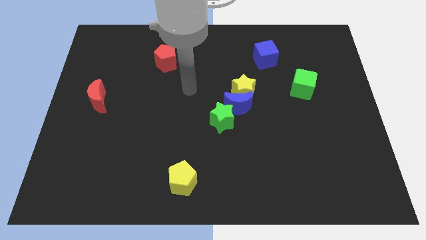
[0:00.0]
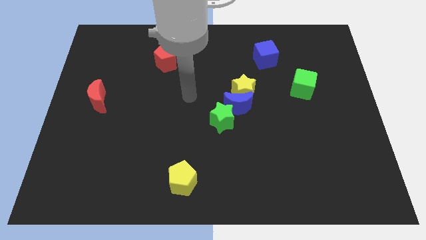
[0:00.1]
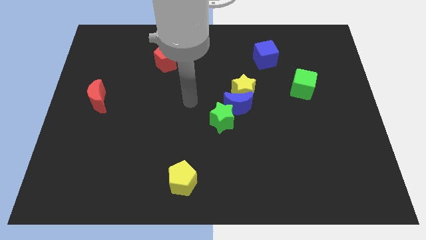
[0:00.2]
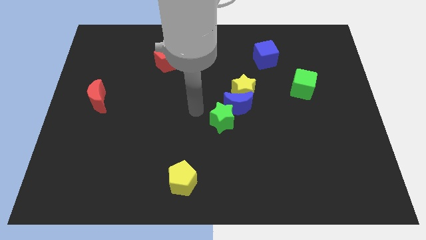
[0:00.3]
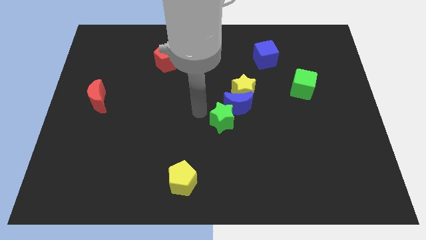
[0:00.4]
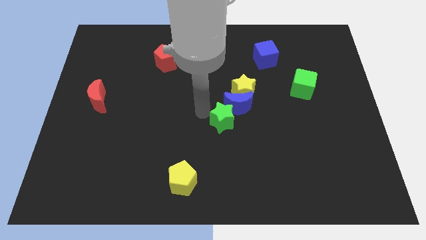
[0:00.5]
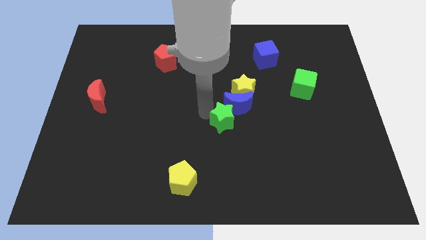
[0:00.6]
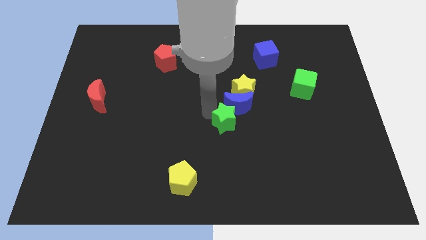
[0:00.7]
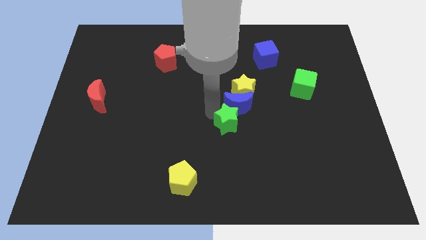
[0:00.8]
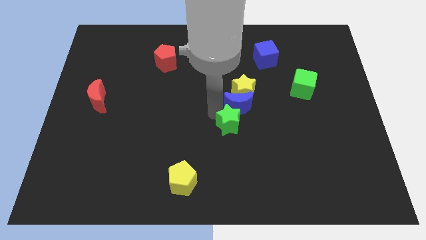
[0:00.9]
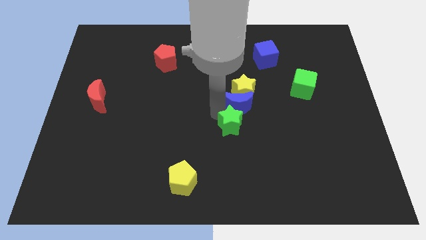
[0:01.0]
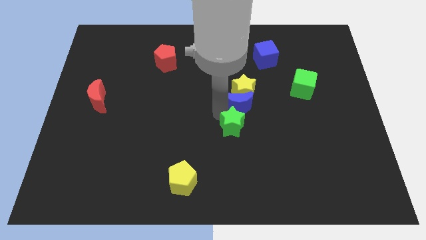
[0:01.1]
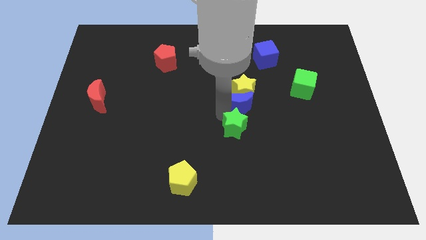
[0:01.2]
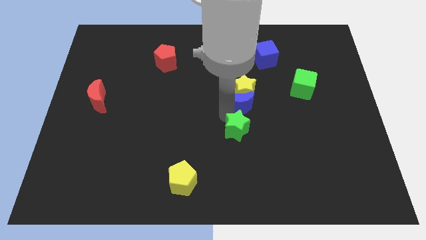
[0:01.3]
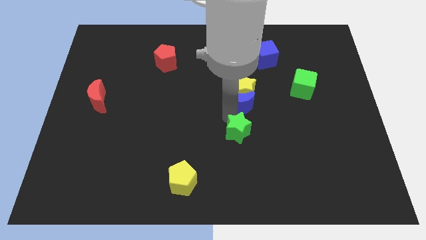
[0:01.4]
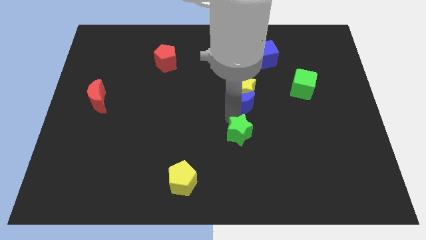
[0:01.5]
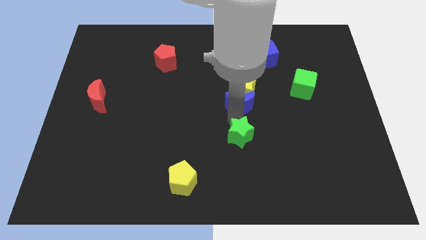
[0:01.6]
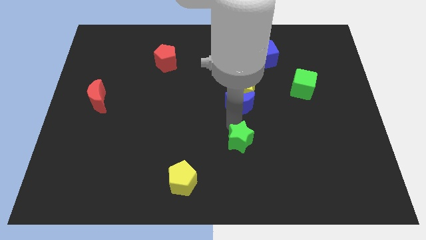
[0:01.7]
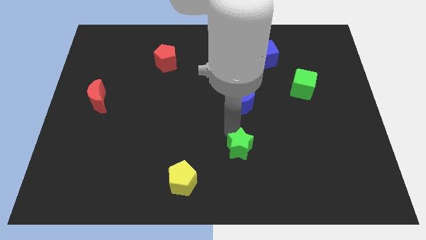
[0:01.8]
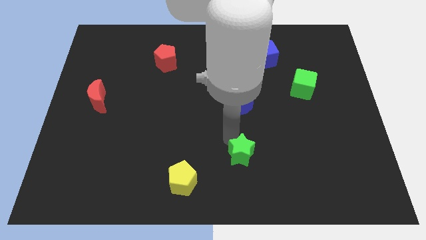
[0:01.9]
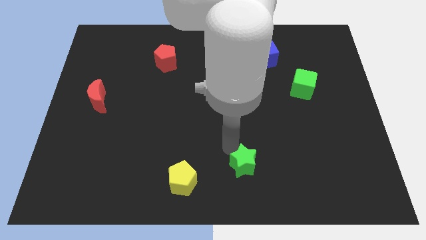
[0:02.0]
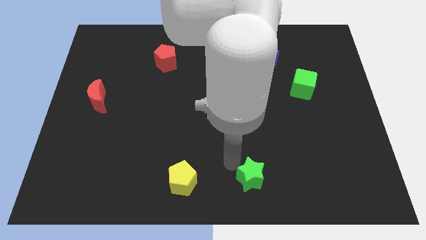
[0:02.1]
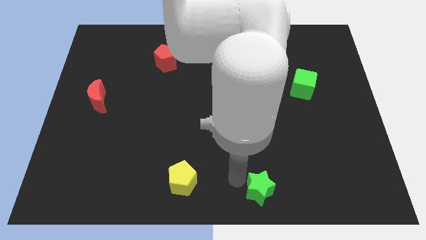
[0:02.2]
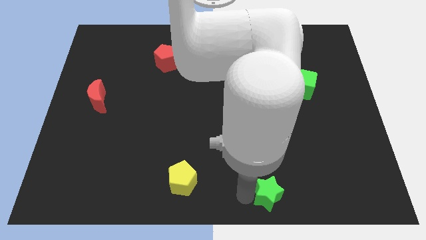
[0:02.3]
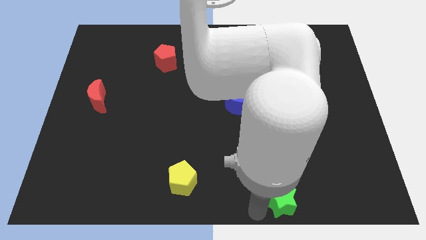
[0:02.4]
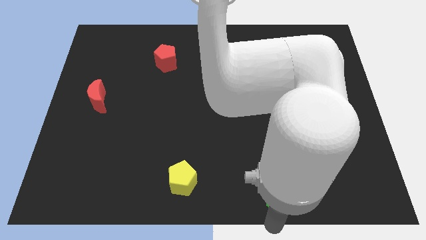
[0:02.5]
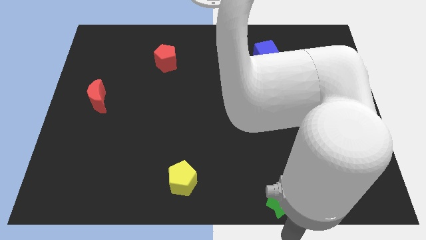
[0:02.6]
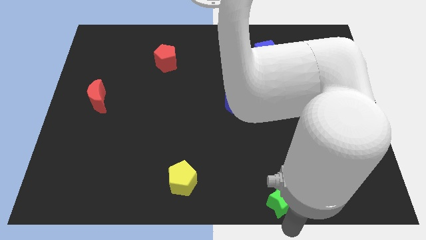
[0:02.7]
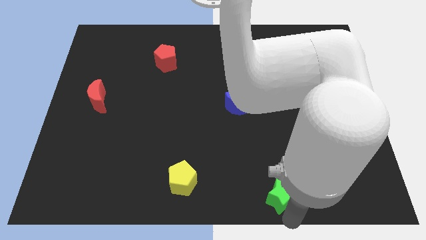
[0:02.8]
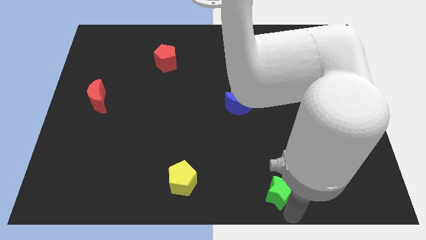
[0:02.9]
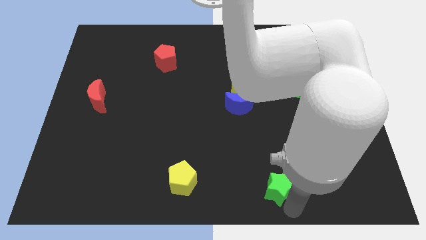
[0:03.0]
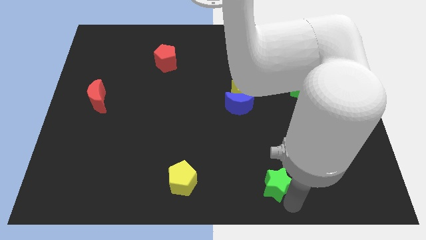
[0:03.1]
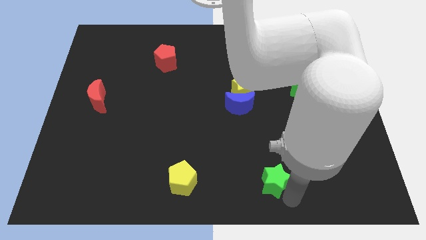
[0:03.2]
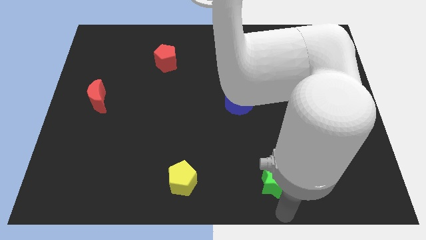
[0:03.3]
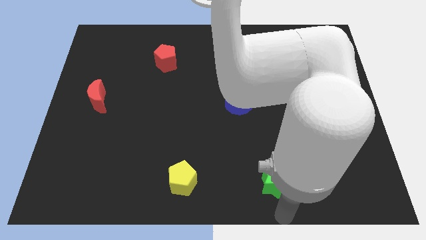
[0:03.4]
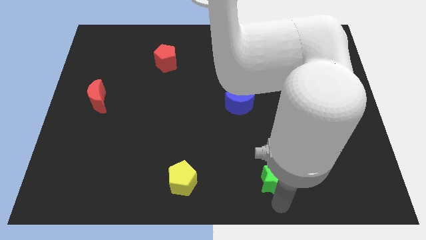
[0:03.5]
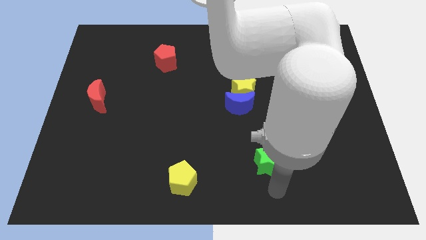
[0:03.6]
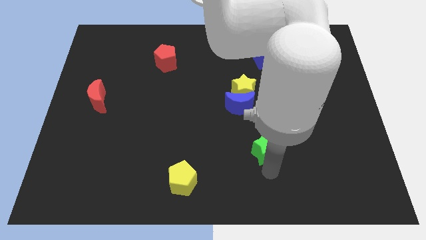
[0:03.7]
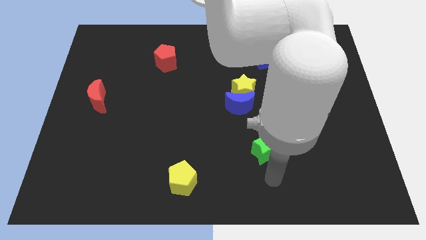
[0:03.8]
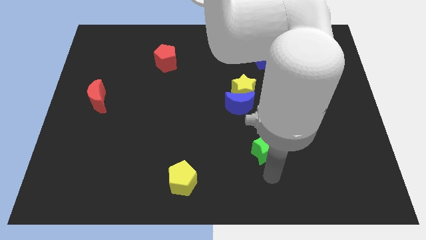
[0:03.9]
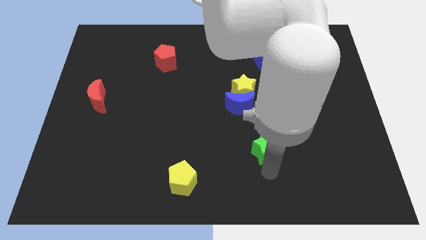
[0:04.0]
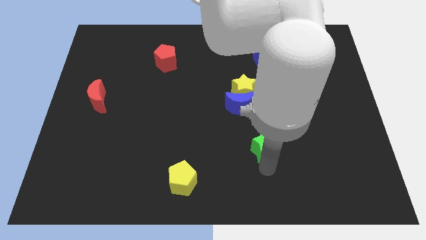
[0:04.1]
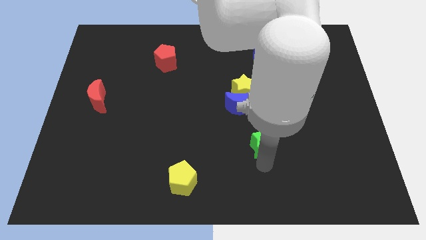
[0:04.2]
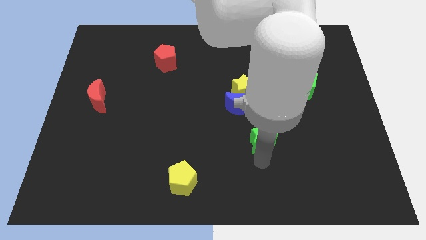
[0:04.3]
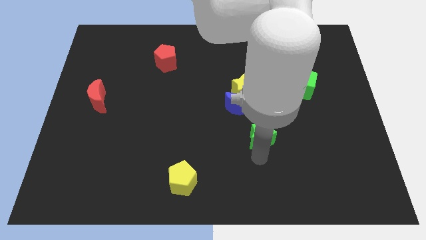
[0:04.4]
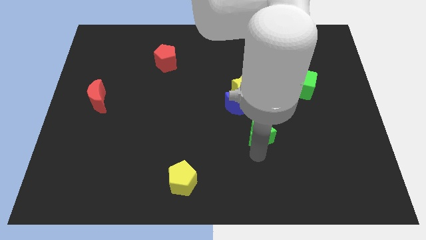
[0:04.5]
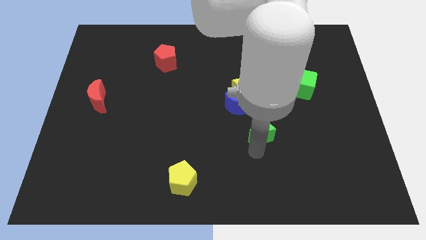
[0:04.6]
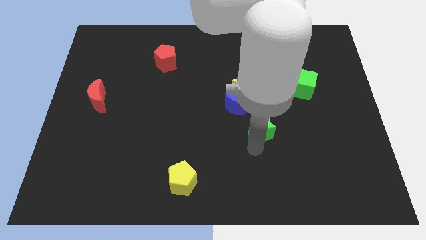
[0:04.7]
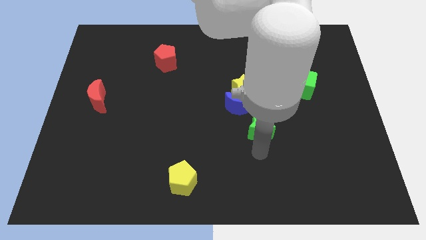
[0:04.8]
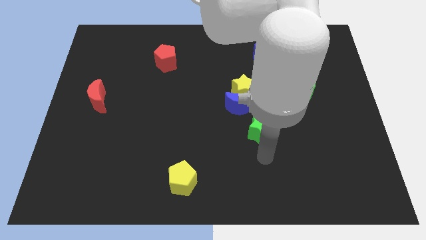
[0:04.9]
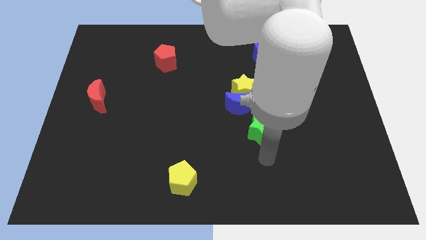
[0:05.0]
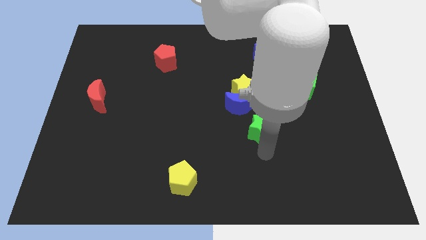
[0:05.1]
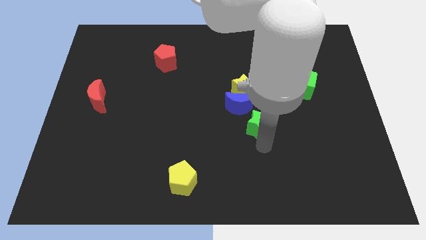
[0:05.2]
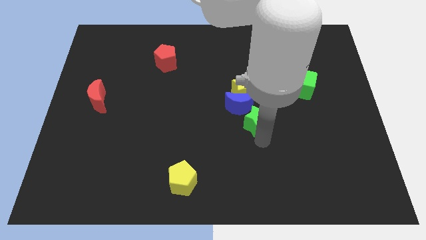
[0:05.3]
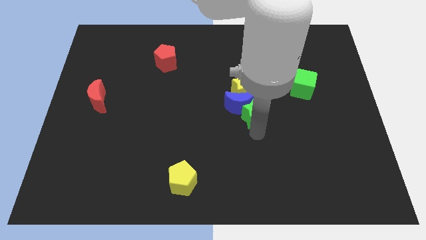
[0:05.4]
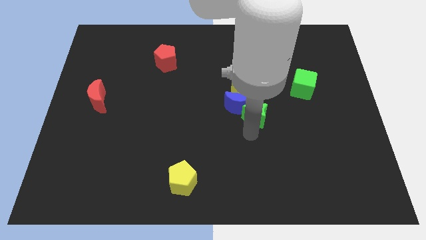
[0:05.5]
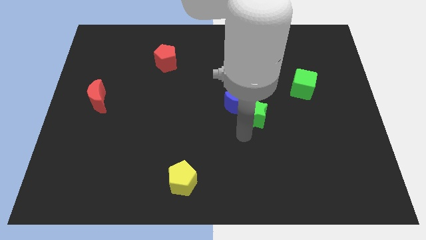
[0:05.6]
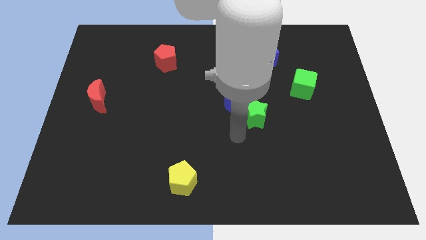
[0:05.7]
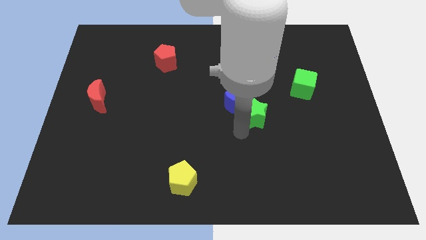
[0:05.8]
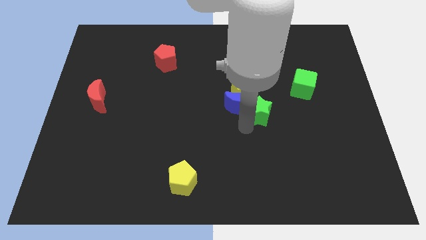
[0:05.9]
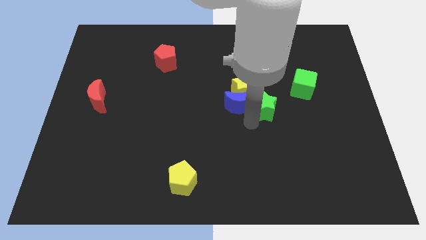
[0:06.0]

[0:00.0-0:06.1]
move the green star slightly diagonally upwards and right

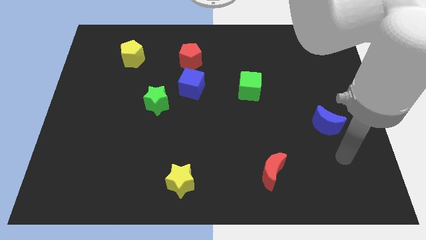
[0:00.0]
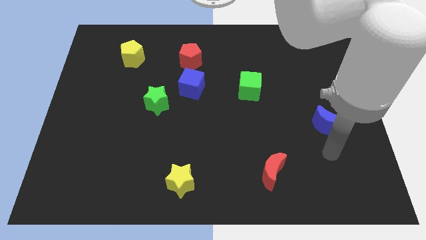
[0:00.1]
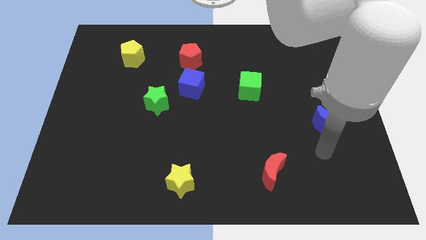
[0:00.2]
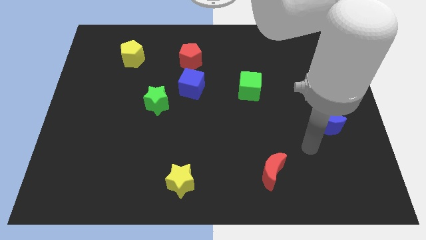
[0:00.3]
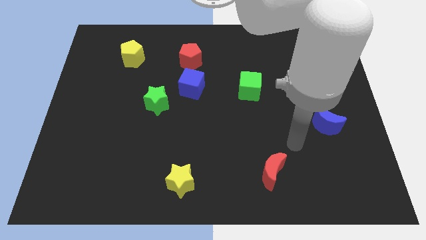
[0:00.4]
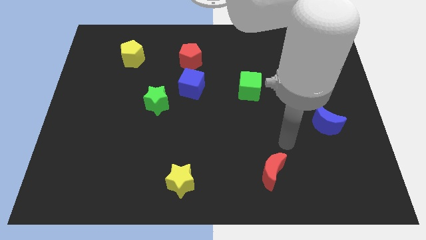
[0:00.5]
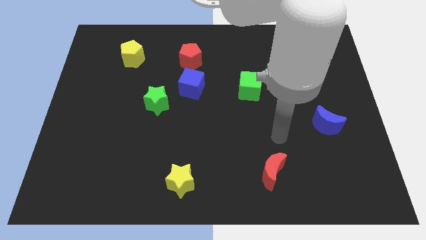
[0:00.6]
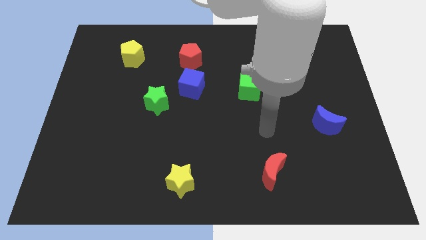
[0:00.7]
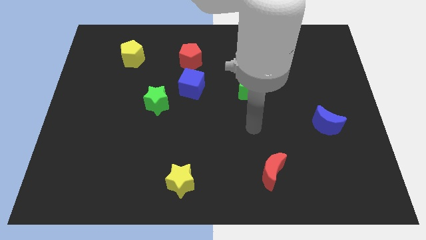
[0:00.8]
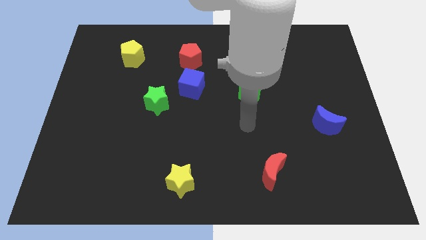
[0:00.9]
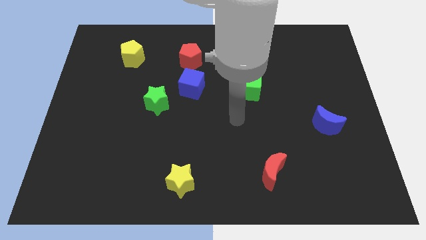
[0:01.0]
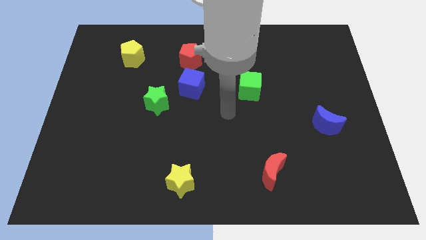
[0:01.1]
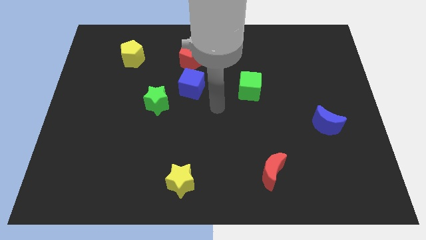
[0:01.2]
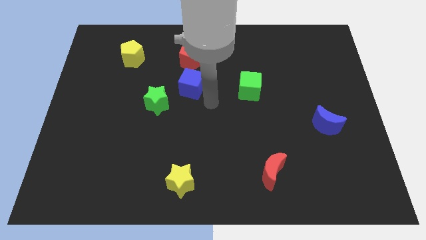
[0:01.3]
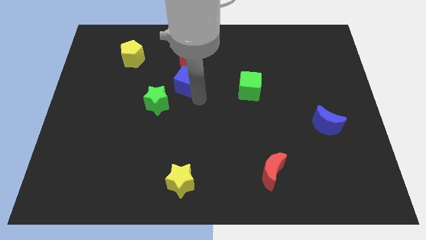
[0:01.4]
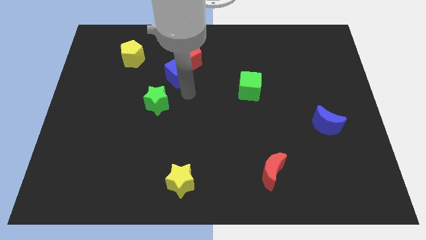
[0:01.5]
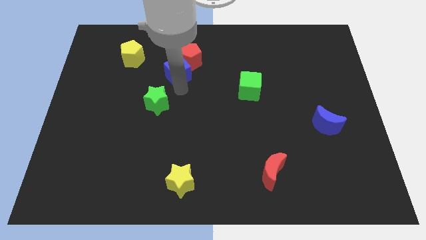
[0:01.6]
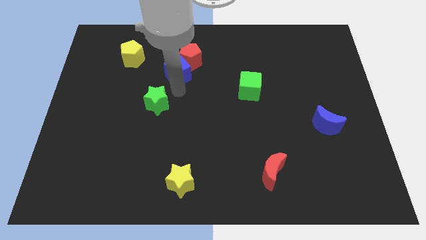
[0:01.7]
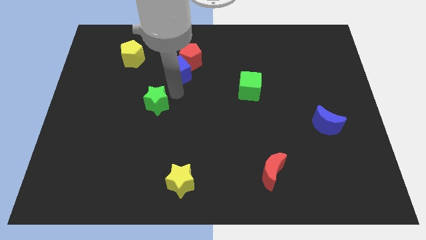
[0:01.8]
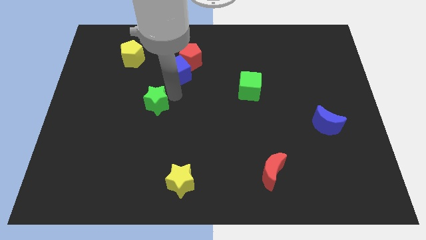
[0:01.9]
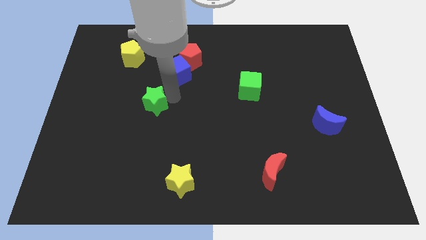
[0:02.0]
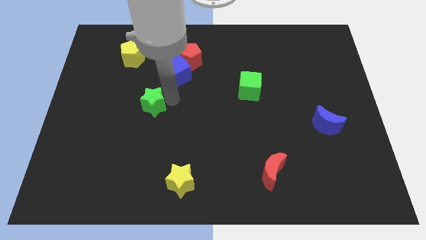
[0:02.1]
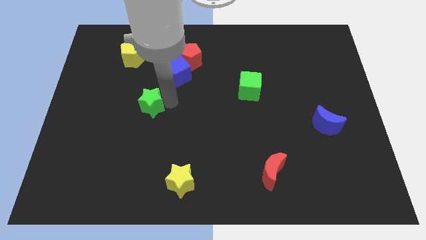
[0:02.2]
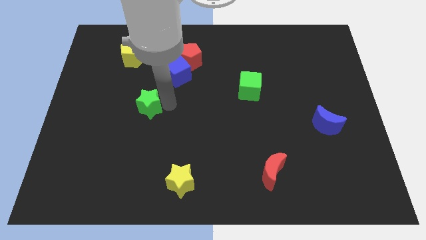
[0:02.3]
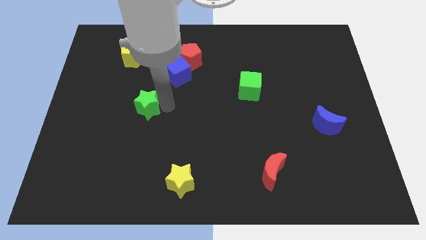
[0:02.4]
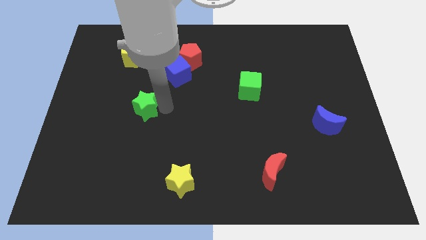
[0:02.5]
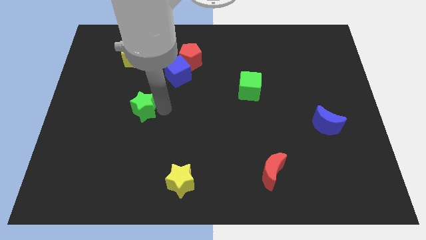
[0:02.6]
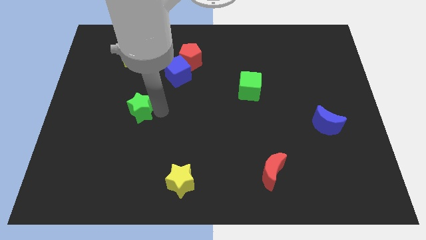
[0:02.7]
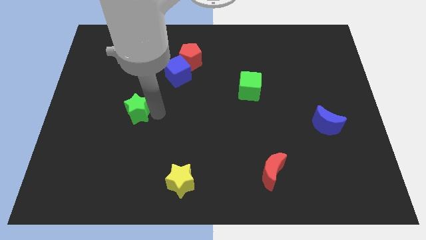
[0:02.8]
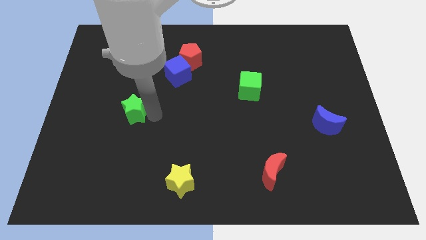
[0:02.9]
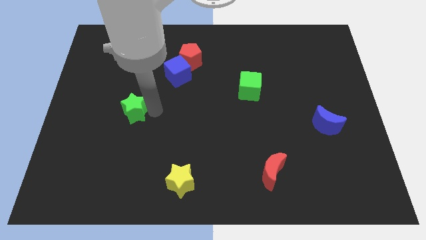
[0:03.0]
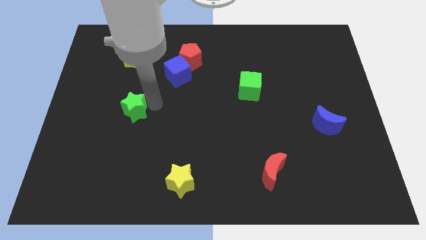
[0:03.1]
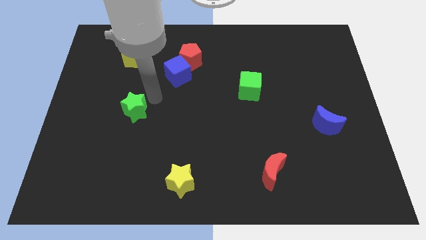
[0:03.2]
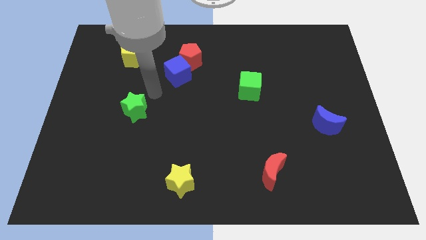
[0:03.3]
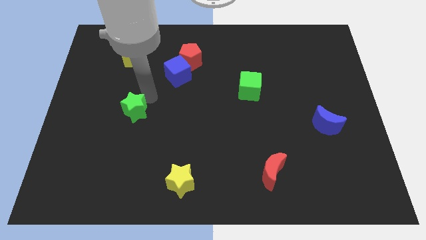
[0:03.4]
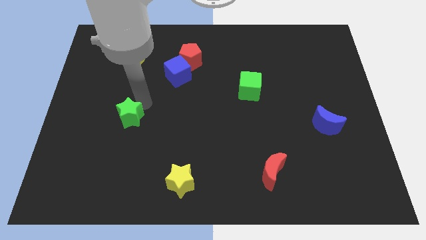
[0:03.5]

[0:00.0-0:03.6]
slide the green star somewhat down and to the left
